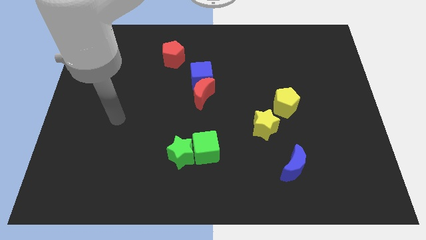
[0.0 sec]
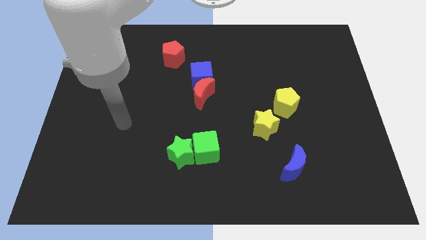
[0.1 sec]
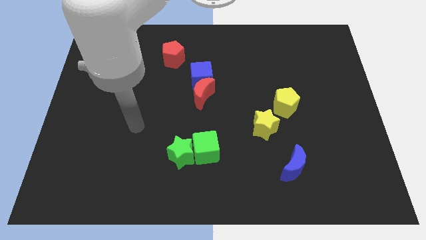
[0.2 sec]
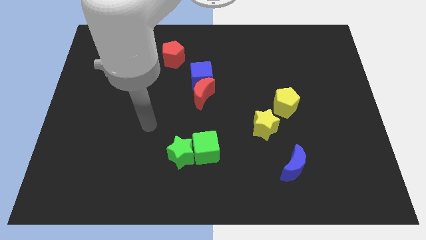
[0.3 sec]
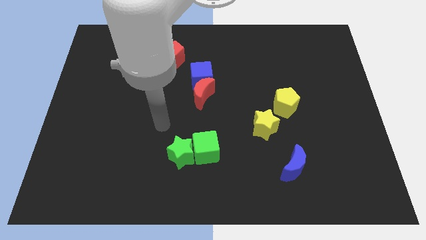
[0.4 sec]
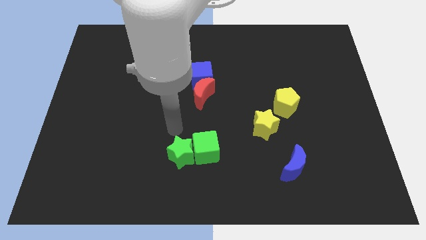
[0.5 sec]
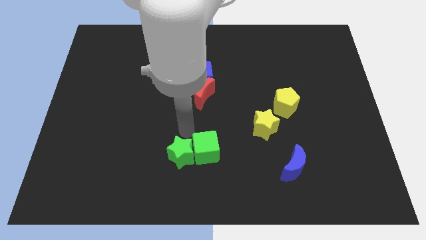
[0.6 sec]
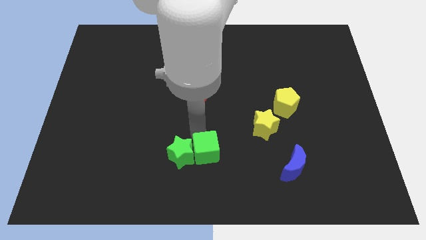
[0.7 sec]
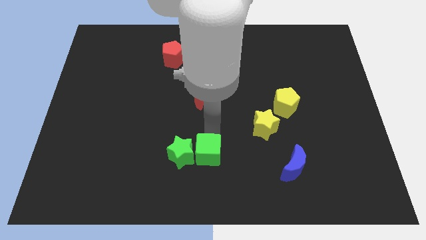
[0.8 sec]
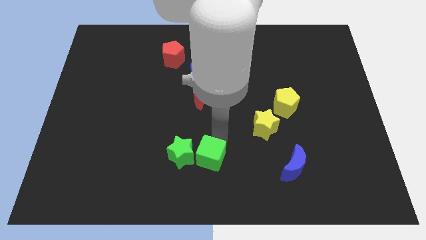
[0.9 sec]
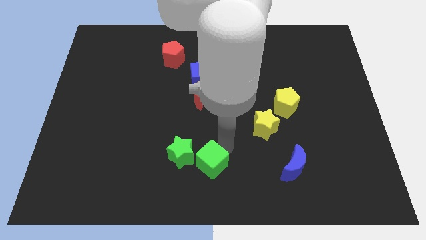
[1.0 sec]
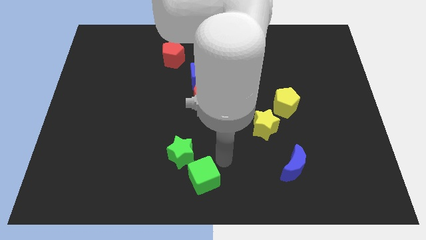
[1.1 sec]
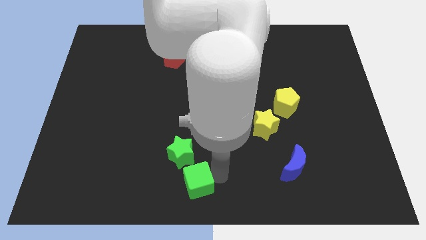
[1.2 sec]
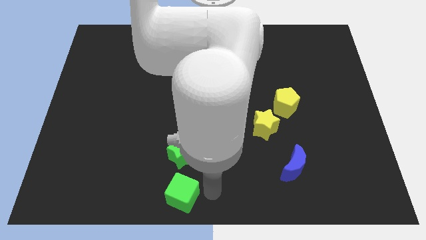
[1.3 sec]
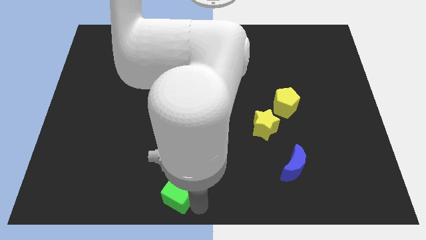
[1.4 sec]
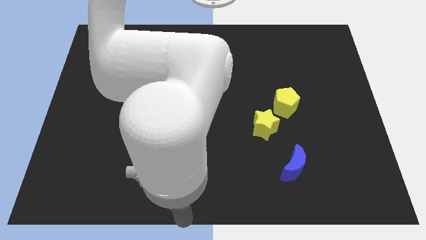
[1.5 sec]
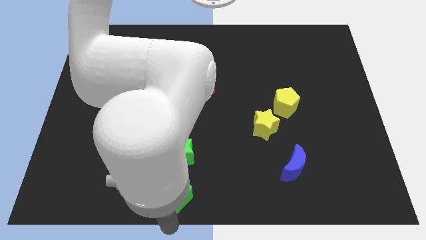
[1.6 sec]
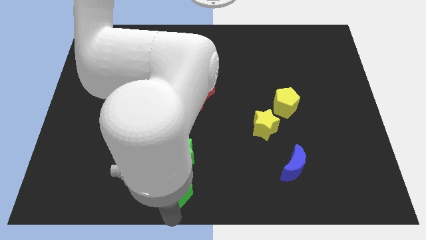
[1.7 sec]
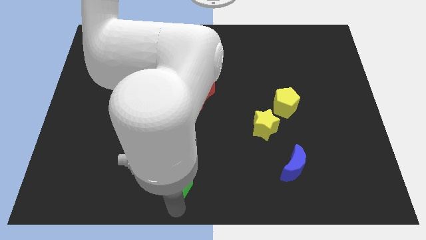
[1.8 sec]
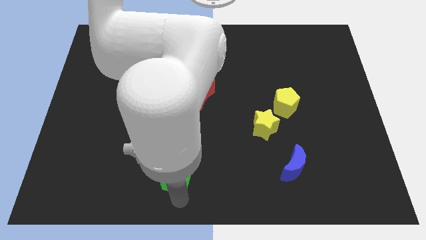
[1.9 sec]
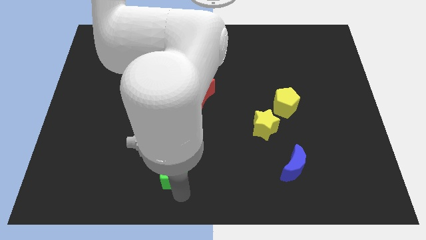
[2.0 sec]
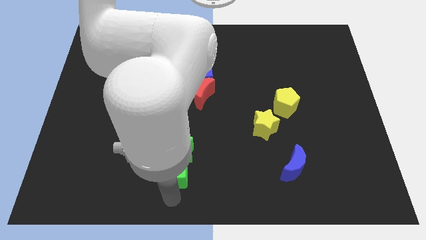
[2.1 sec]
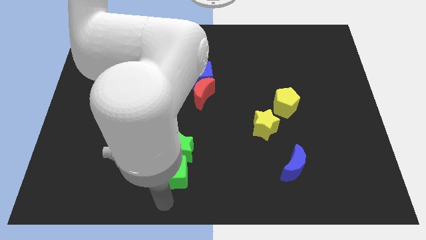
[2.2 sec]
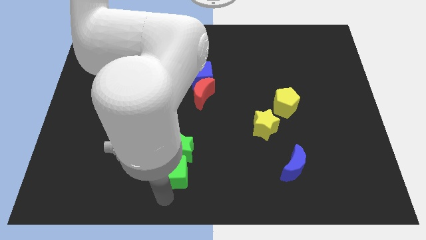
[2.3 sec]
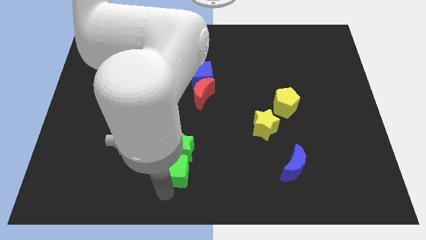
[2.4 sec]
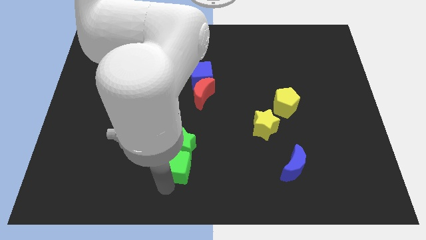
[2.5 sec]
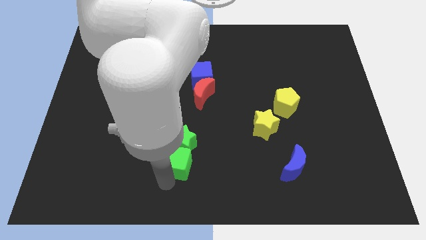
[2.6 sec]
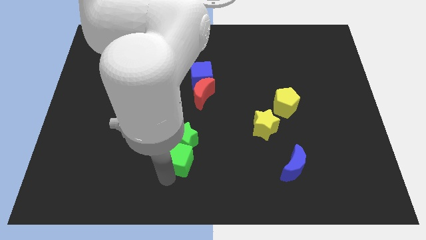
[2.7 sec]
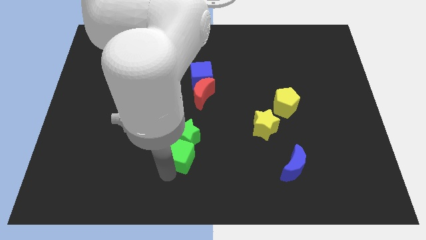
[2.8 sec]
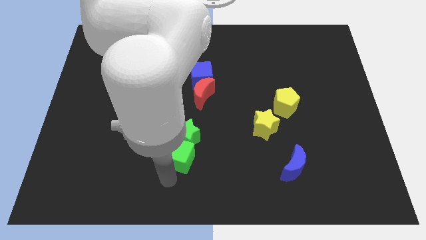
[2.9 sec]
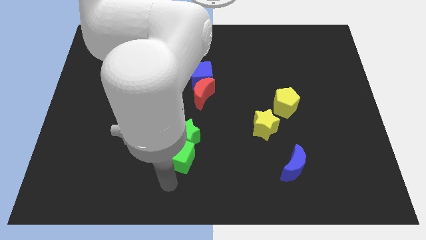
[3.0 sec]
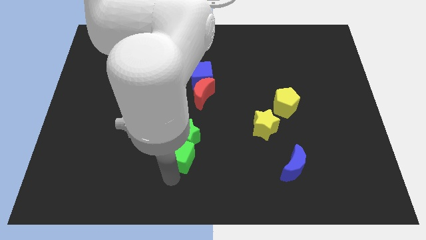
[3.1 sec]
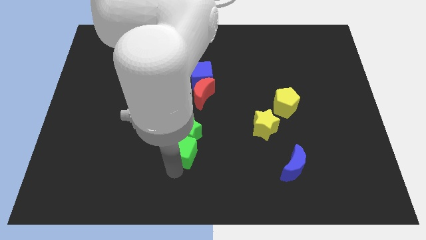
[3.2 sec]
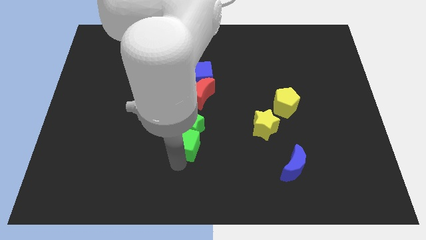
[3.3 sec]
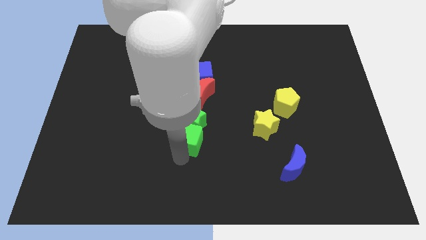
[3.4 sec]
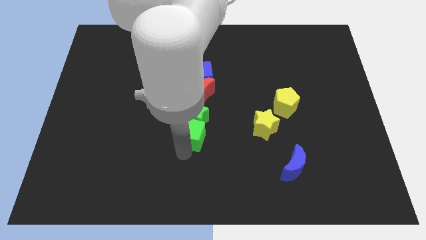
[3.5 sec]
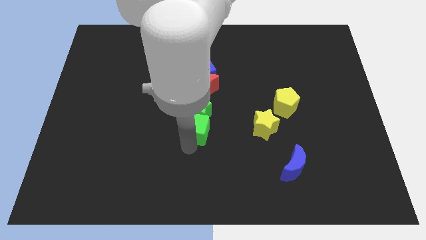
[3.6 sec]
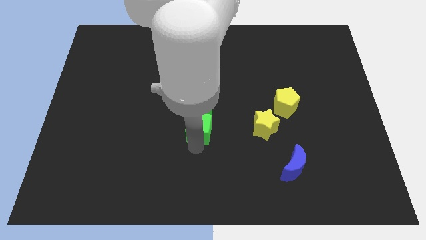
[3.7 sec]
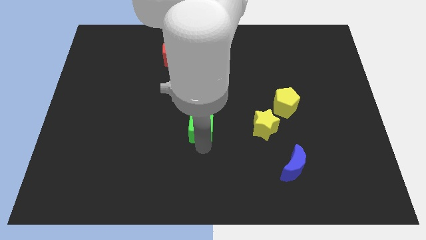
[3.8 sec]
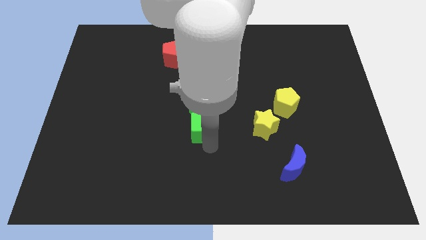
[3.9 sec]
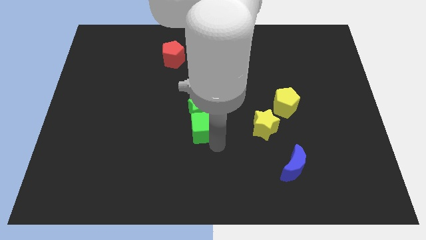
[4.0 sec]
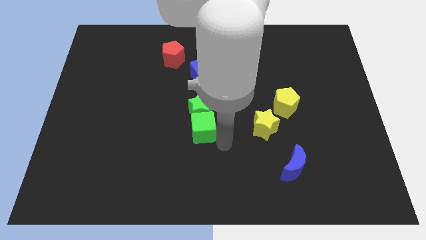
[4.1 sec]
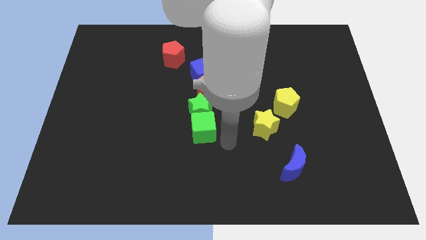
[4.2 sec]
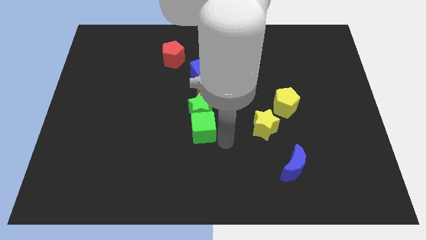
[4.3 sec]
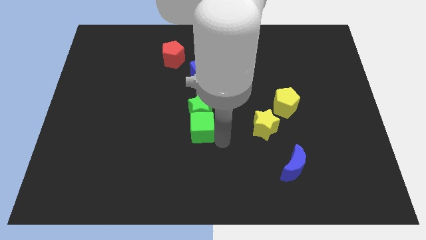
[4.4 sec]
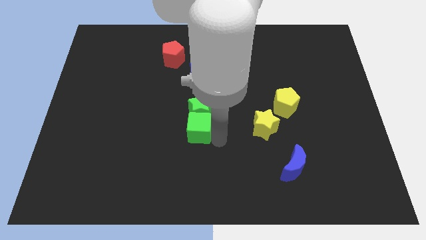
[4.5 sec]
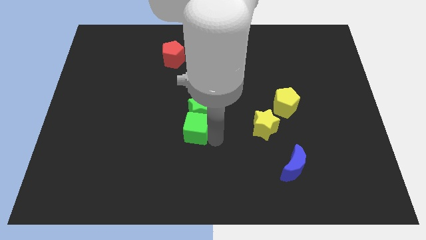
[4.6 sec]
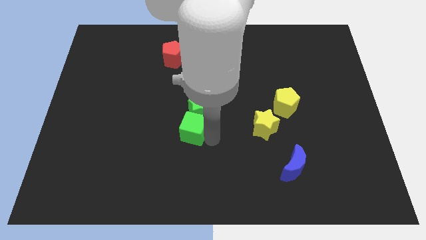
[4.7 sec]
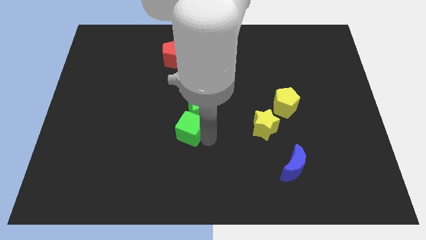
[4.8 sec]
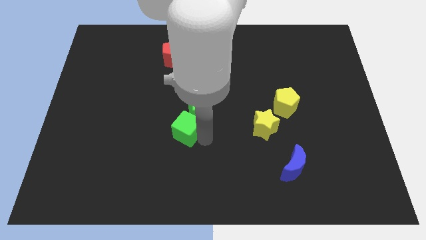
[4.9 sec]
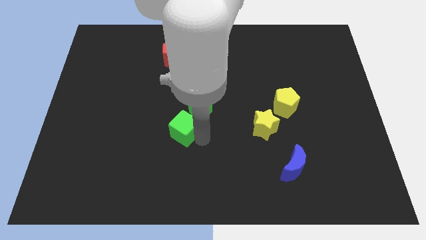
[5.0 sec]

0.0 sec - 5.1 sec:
slide the green cube up and then left slightly

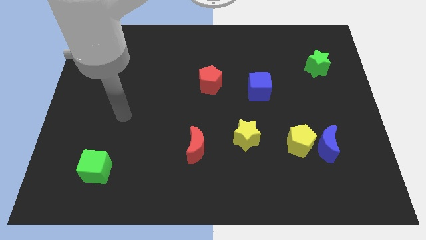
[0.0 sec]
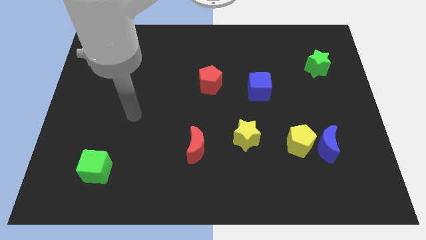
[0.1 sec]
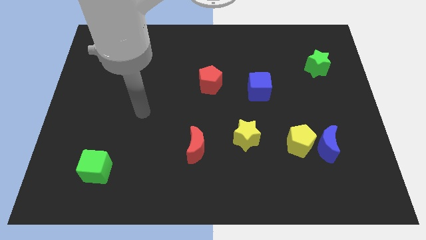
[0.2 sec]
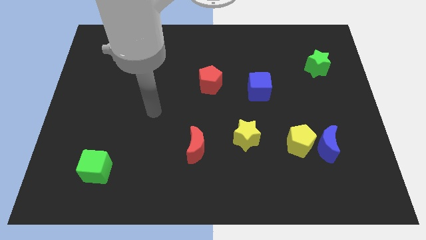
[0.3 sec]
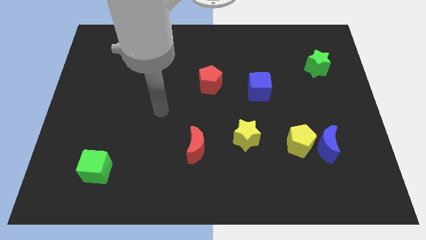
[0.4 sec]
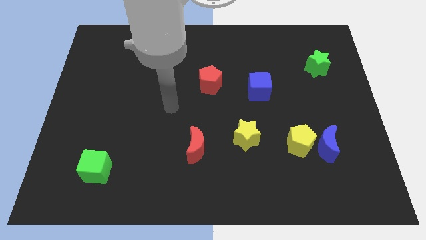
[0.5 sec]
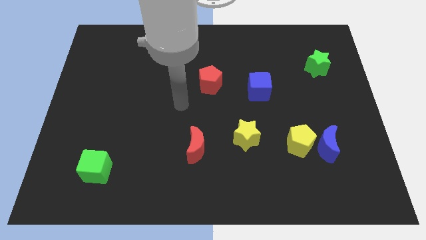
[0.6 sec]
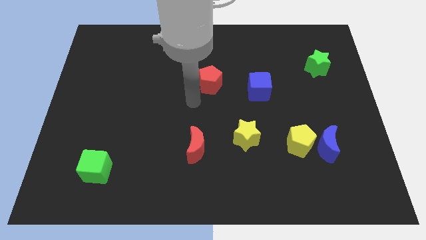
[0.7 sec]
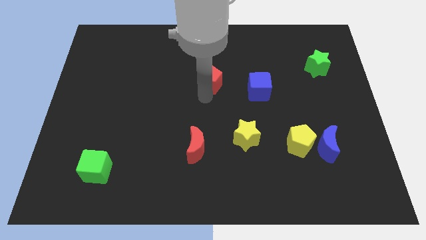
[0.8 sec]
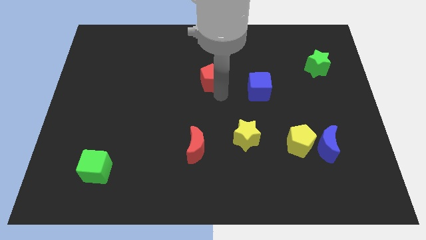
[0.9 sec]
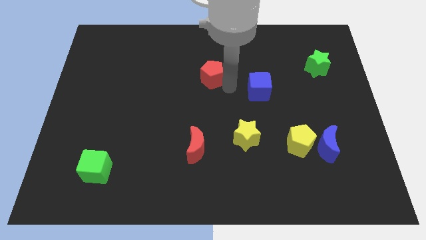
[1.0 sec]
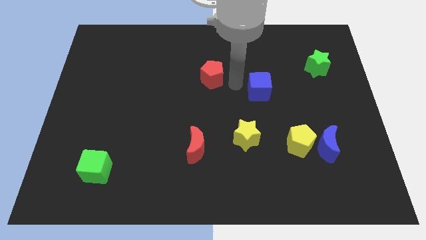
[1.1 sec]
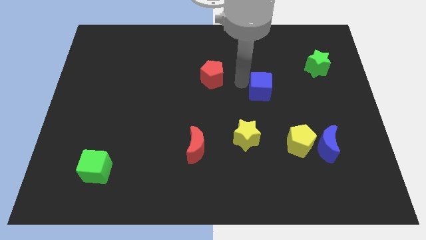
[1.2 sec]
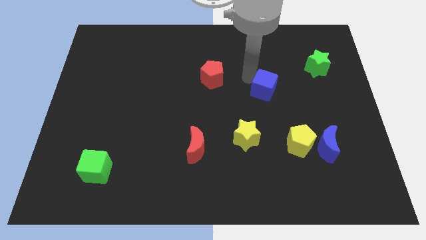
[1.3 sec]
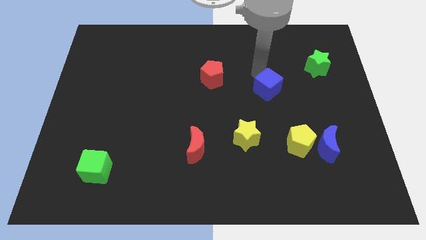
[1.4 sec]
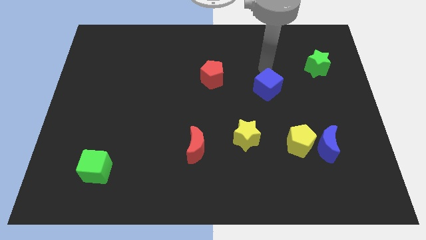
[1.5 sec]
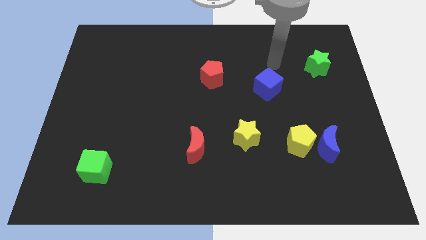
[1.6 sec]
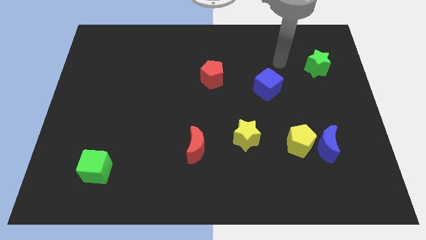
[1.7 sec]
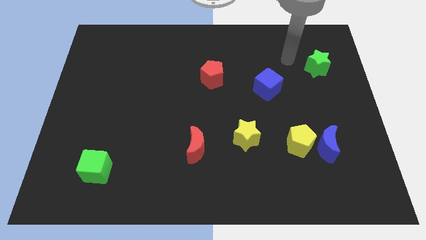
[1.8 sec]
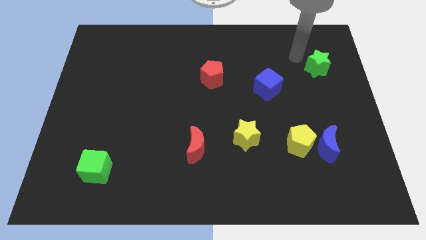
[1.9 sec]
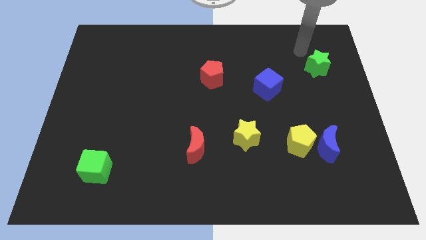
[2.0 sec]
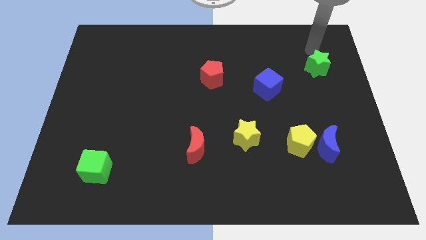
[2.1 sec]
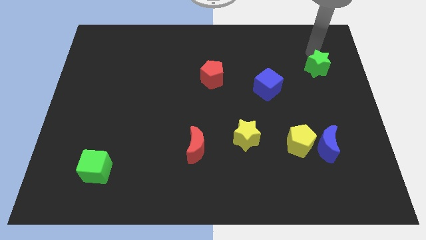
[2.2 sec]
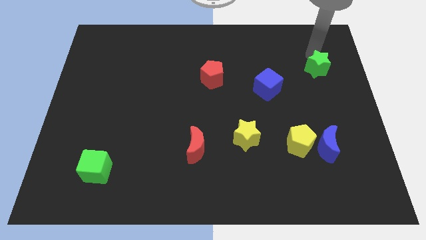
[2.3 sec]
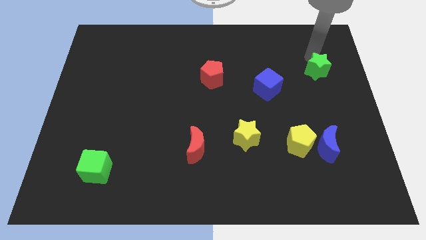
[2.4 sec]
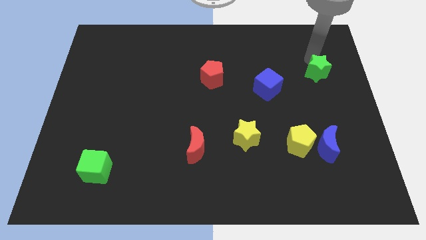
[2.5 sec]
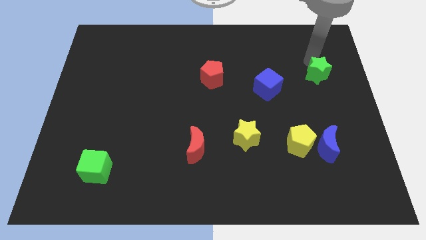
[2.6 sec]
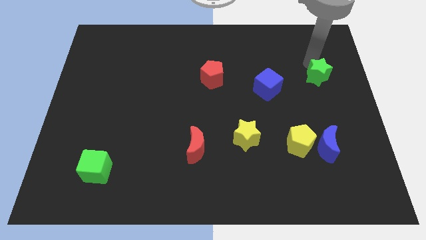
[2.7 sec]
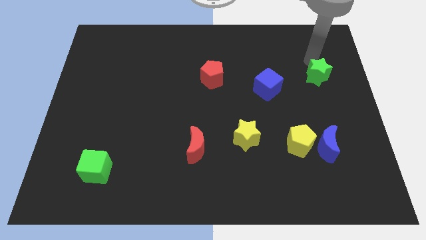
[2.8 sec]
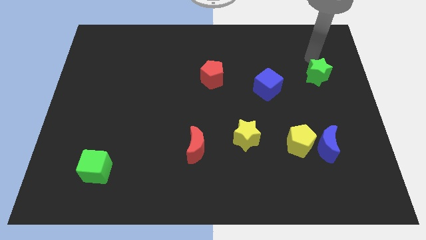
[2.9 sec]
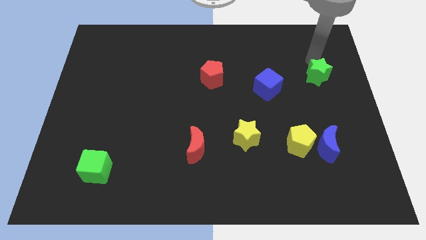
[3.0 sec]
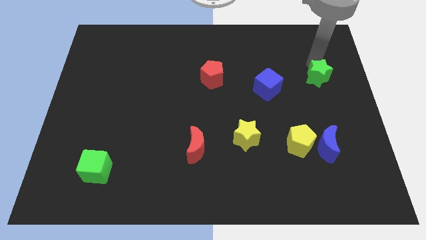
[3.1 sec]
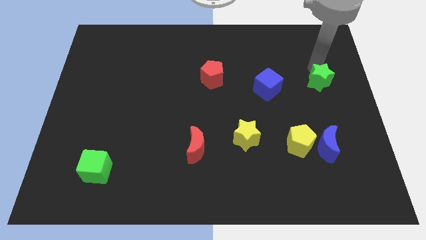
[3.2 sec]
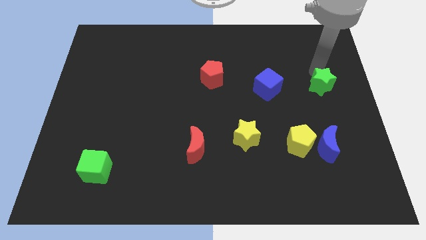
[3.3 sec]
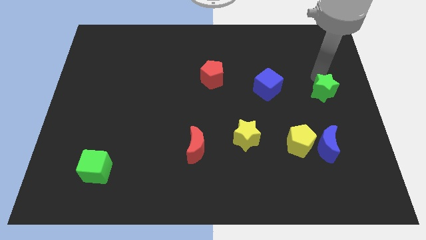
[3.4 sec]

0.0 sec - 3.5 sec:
slide the green star a little down
